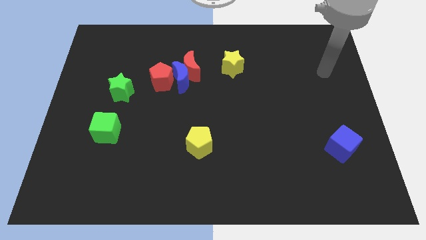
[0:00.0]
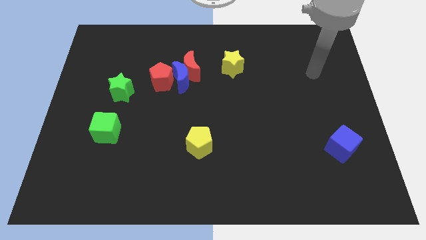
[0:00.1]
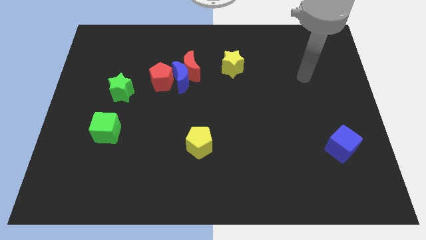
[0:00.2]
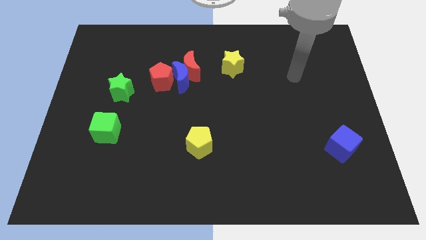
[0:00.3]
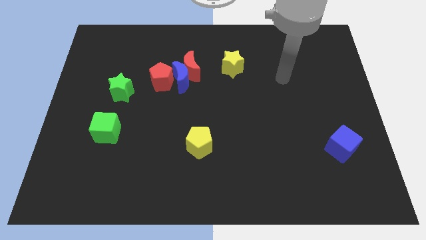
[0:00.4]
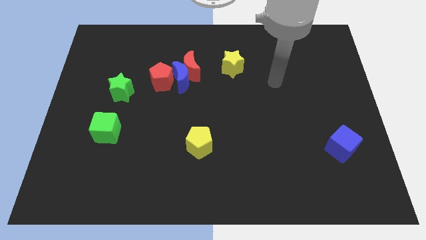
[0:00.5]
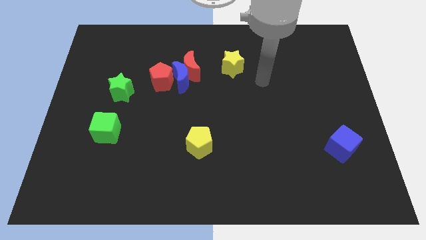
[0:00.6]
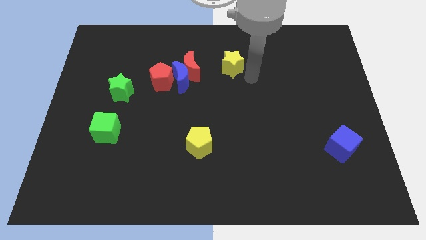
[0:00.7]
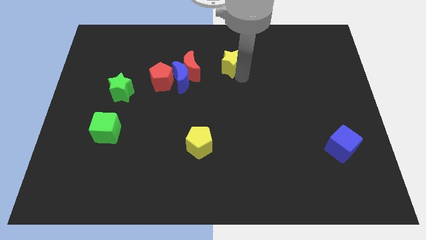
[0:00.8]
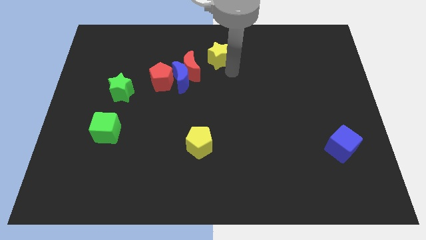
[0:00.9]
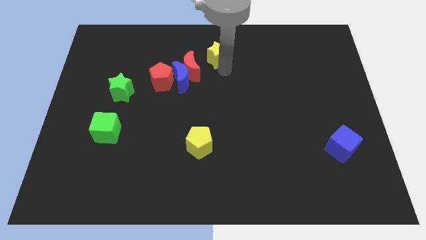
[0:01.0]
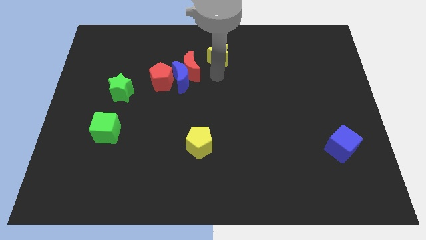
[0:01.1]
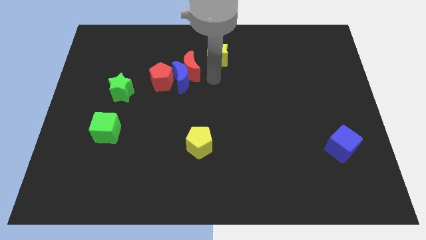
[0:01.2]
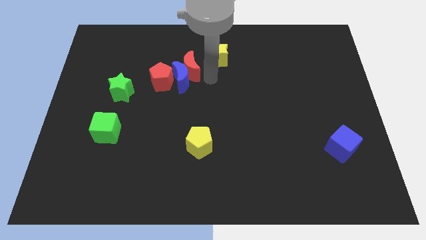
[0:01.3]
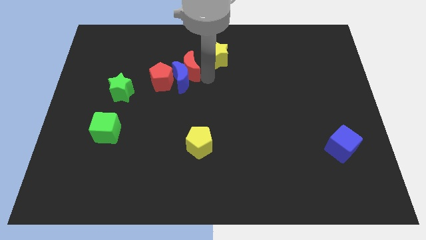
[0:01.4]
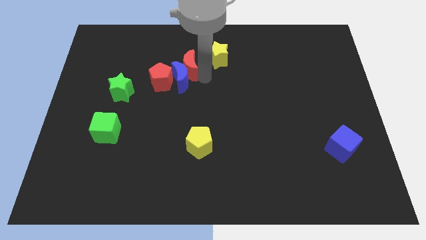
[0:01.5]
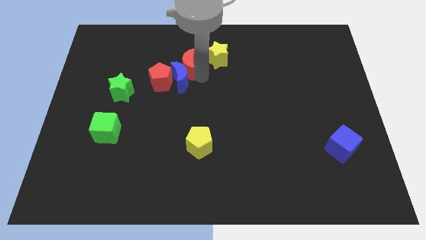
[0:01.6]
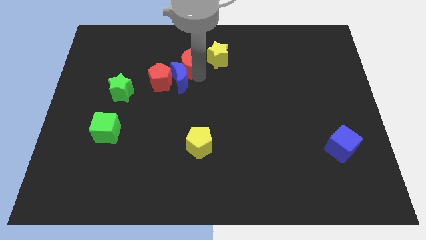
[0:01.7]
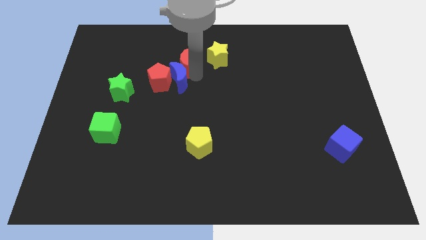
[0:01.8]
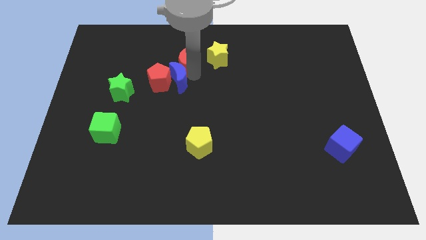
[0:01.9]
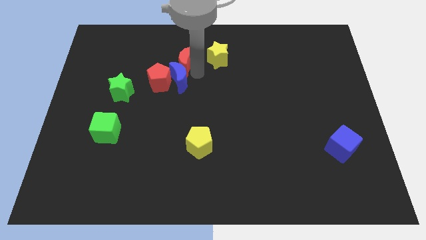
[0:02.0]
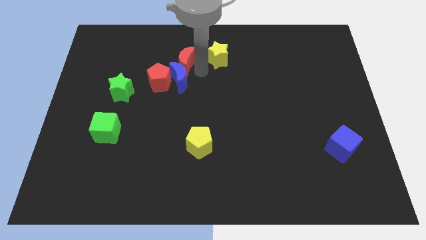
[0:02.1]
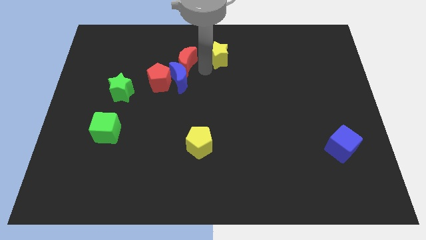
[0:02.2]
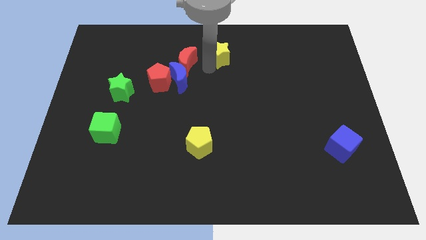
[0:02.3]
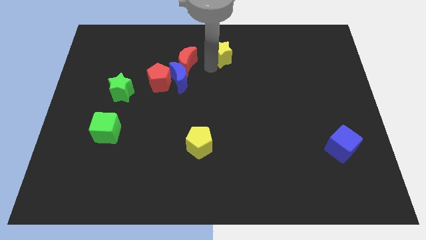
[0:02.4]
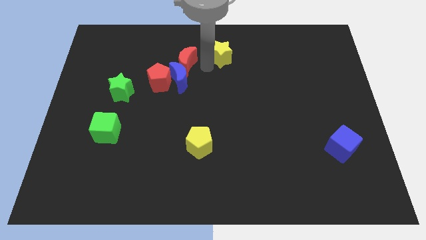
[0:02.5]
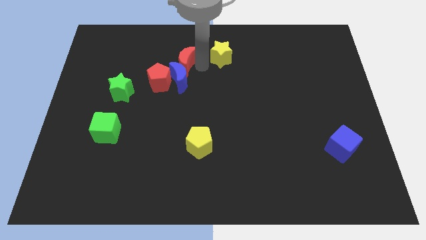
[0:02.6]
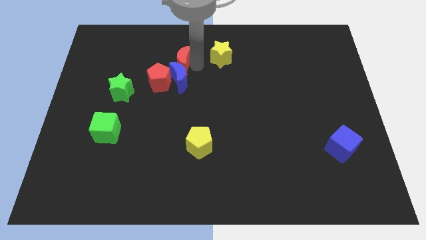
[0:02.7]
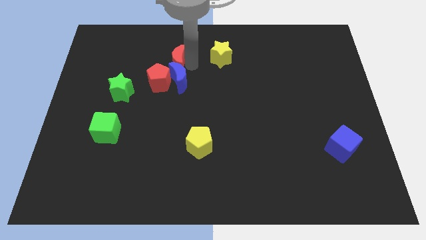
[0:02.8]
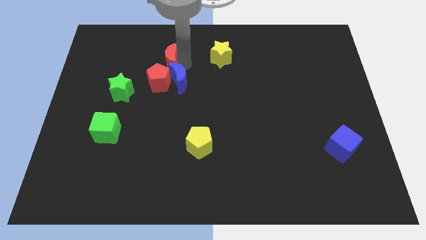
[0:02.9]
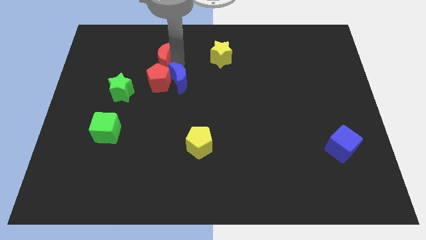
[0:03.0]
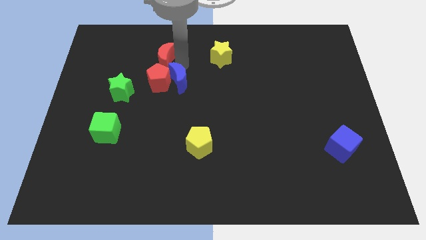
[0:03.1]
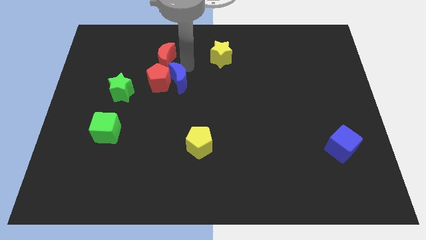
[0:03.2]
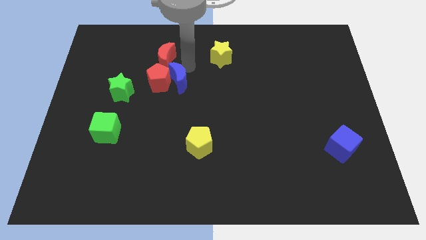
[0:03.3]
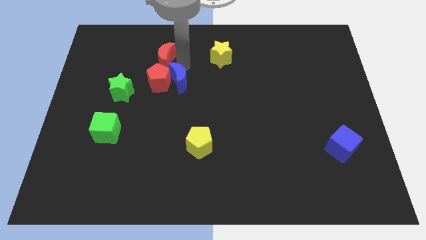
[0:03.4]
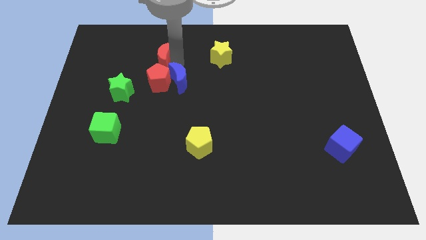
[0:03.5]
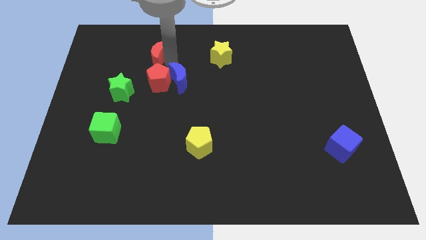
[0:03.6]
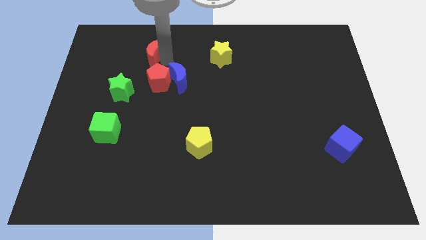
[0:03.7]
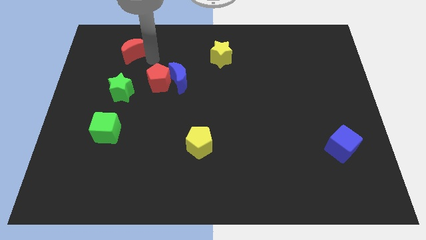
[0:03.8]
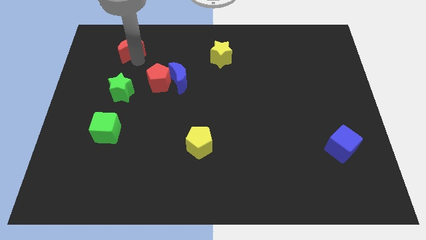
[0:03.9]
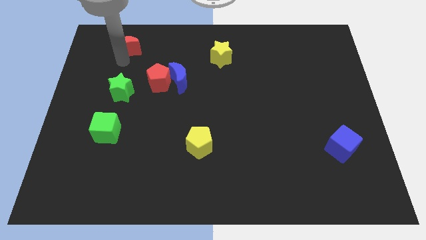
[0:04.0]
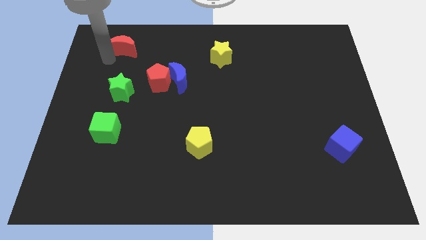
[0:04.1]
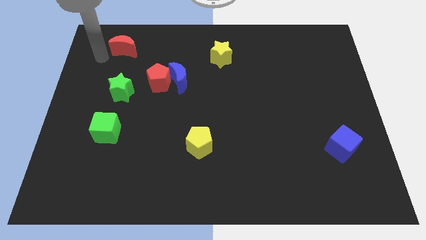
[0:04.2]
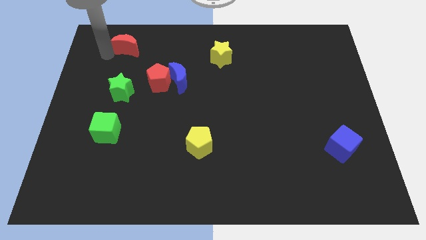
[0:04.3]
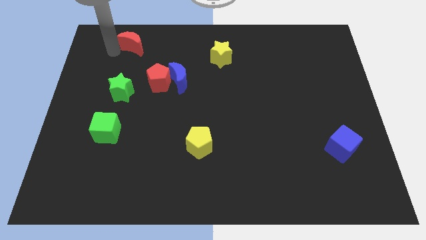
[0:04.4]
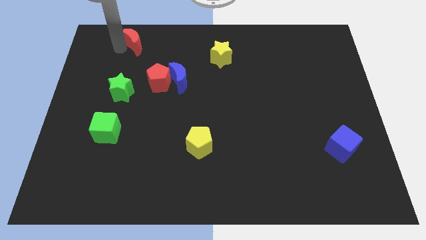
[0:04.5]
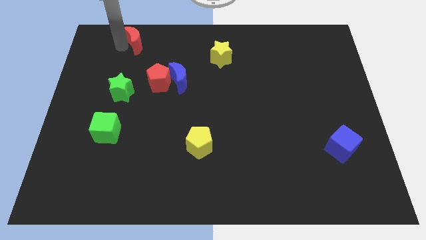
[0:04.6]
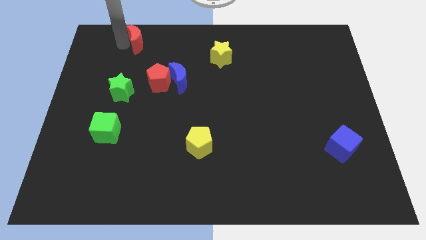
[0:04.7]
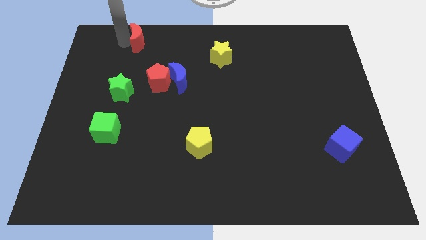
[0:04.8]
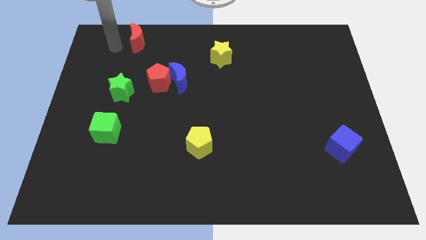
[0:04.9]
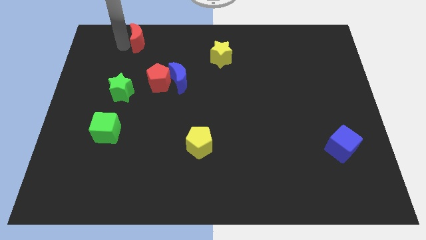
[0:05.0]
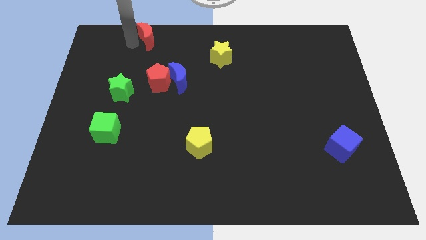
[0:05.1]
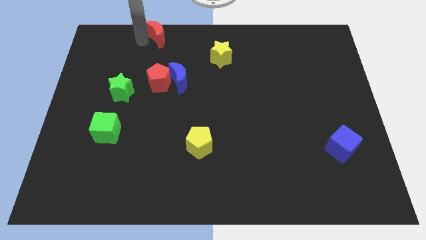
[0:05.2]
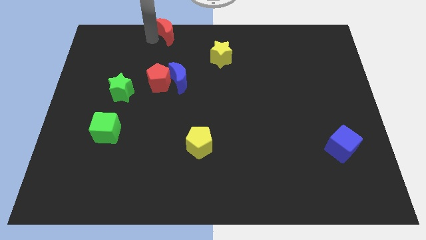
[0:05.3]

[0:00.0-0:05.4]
move the red moon to the top

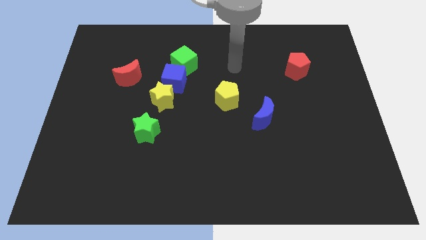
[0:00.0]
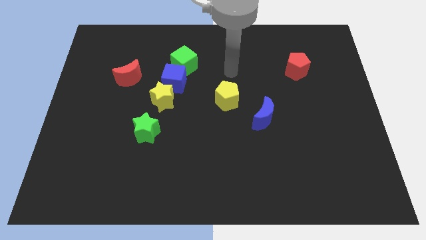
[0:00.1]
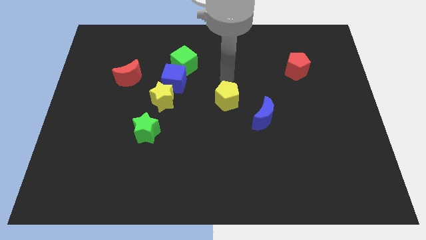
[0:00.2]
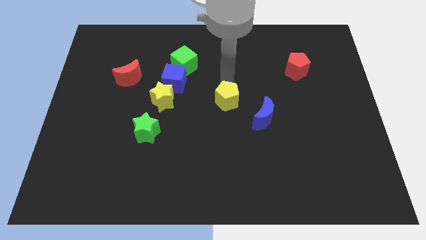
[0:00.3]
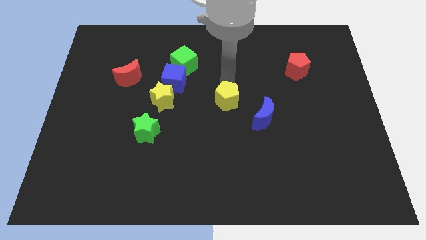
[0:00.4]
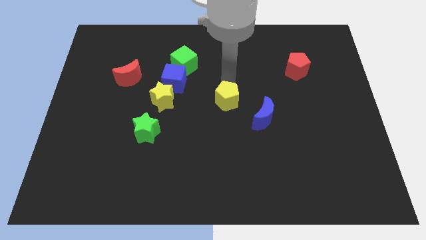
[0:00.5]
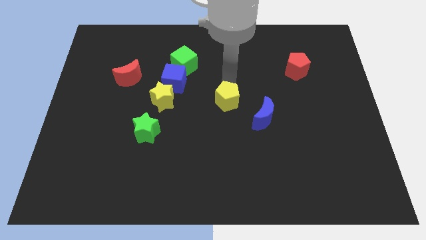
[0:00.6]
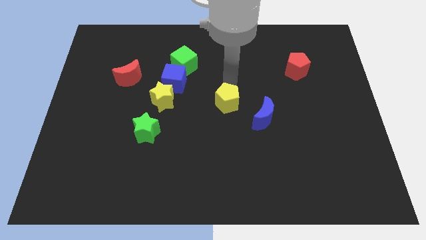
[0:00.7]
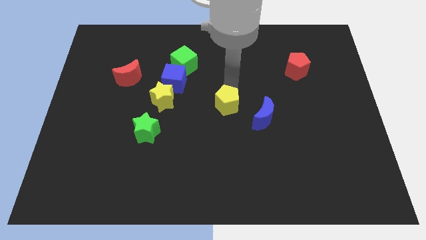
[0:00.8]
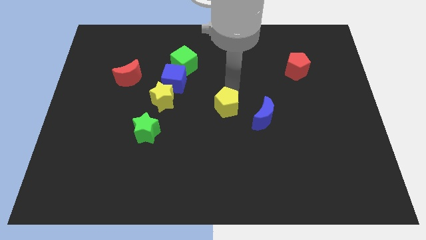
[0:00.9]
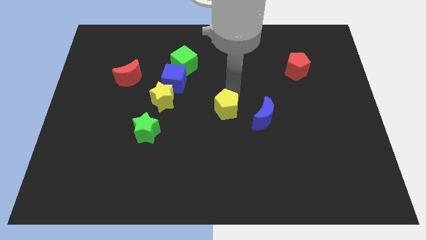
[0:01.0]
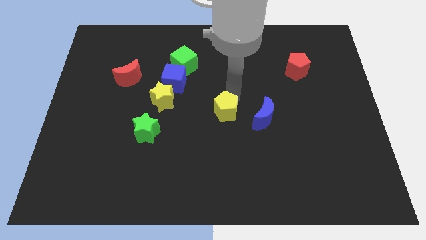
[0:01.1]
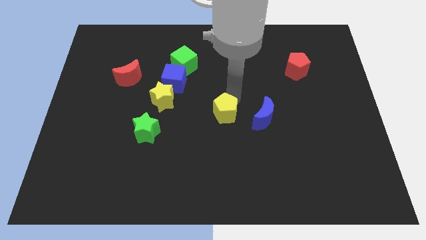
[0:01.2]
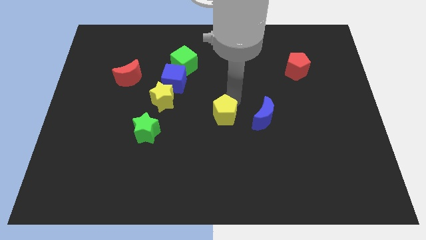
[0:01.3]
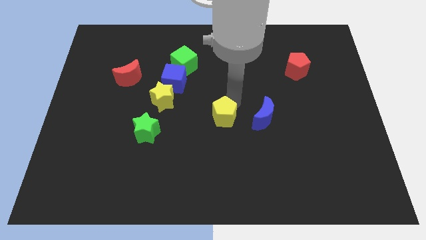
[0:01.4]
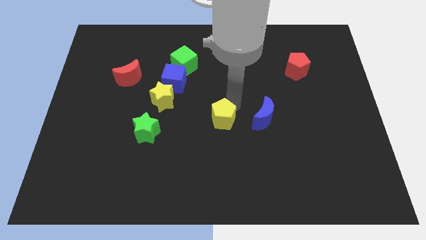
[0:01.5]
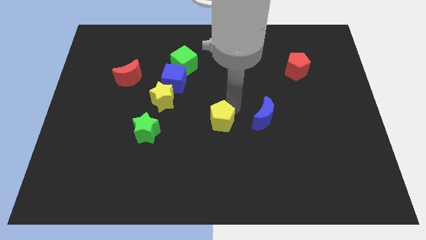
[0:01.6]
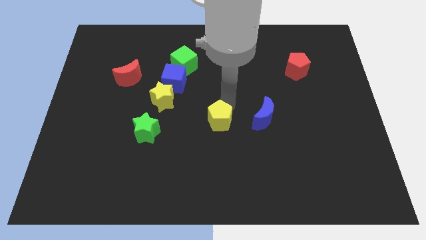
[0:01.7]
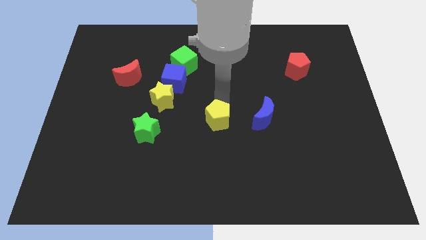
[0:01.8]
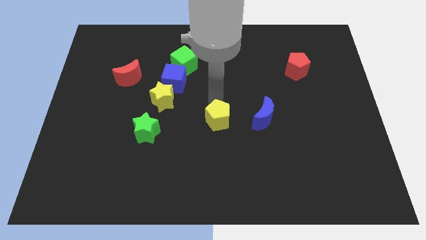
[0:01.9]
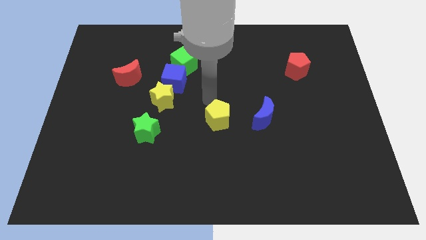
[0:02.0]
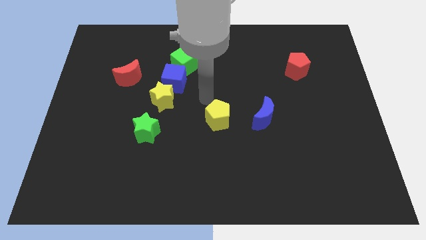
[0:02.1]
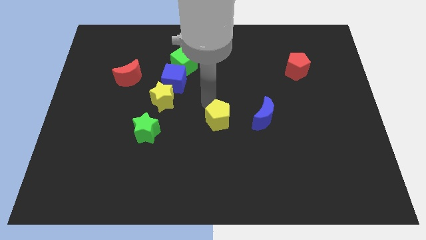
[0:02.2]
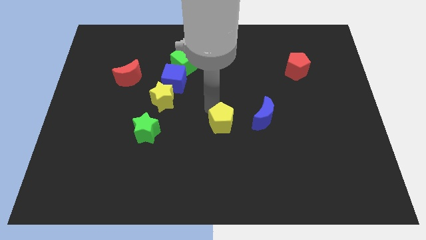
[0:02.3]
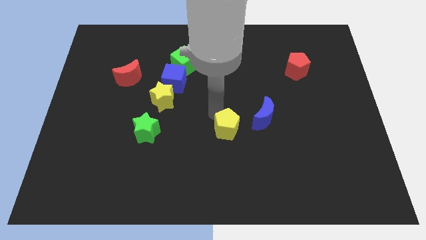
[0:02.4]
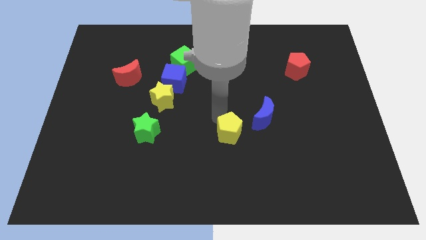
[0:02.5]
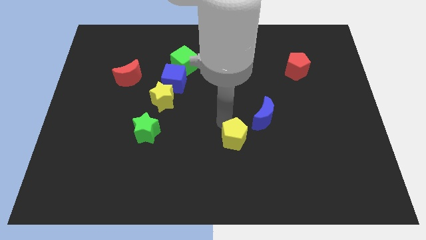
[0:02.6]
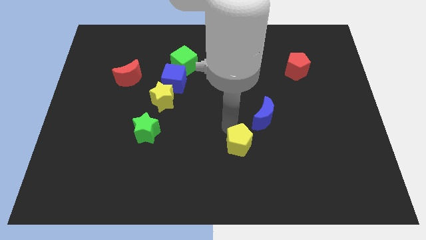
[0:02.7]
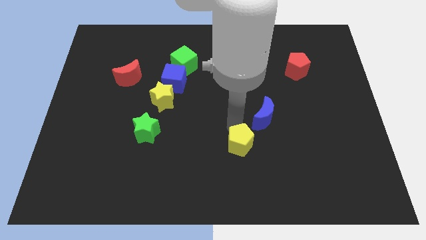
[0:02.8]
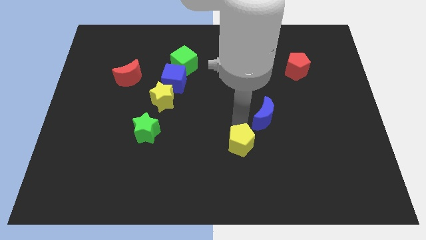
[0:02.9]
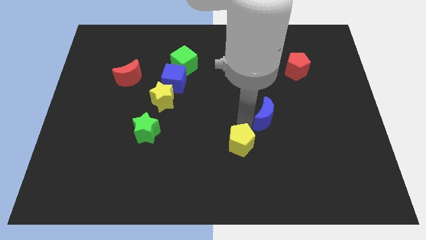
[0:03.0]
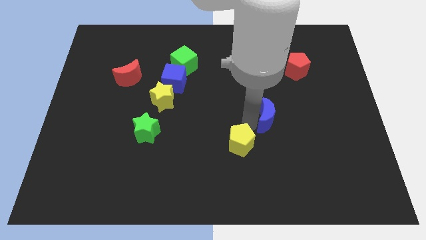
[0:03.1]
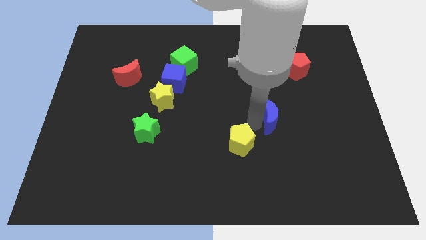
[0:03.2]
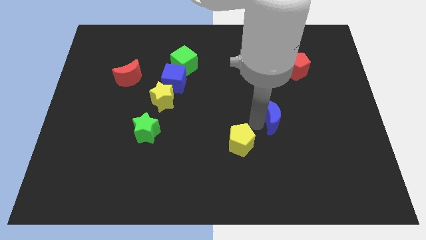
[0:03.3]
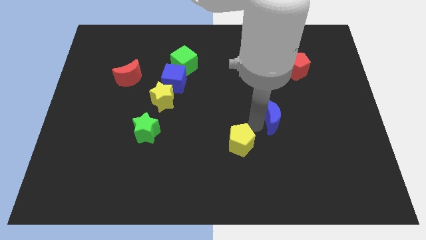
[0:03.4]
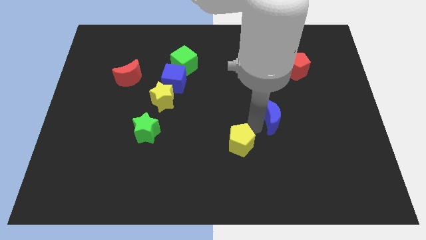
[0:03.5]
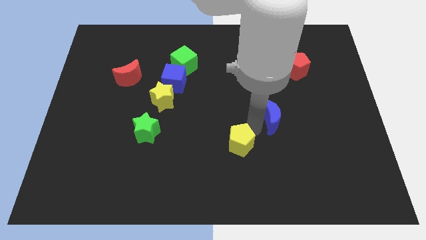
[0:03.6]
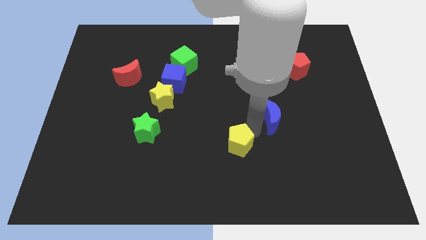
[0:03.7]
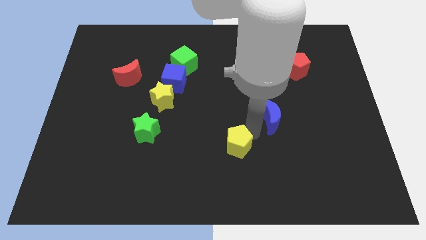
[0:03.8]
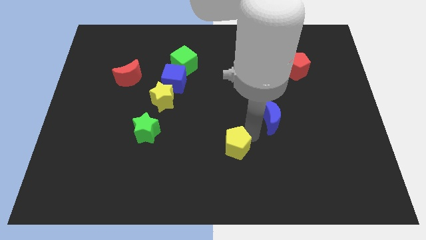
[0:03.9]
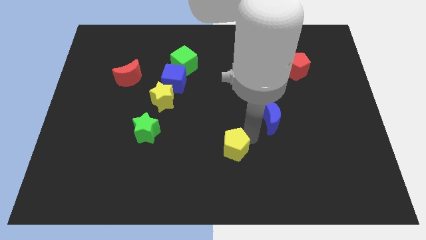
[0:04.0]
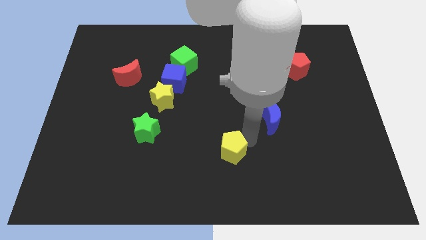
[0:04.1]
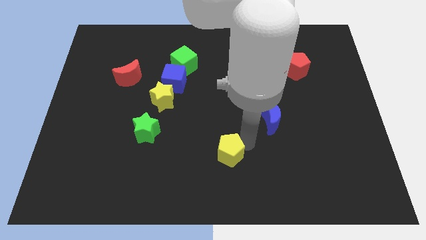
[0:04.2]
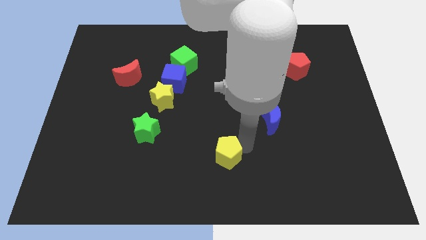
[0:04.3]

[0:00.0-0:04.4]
push the yellow pentagon to the bottom side
